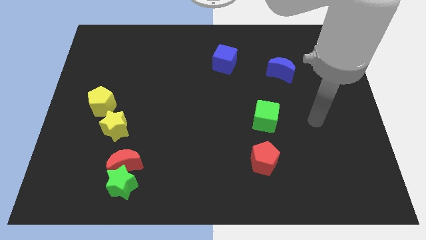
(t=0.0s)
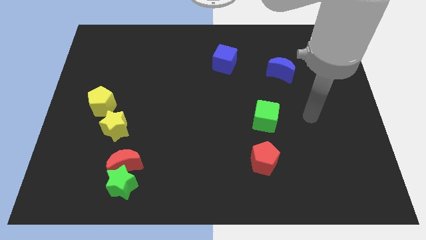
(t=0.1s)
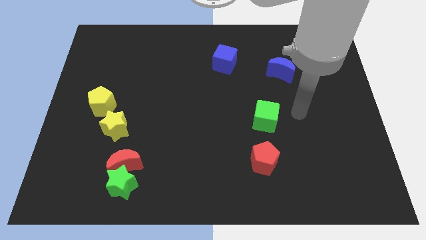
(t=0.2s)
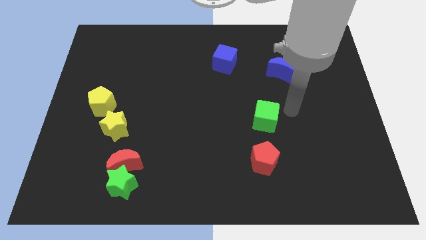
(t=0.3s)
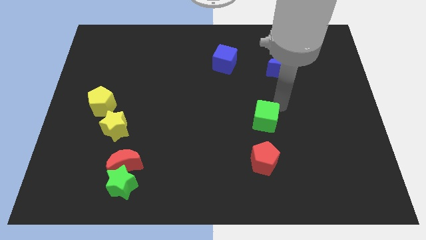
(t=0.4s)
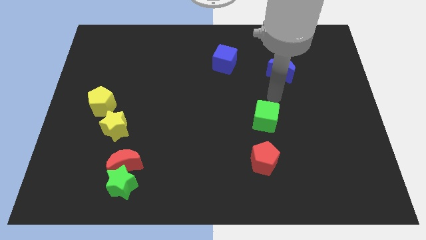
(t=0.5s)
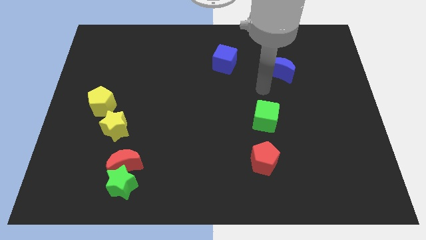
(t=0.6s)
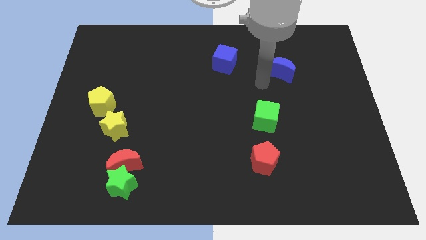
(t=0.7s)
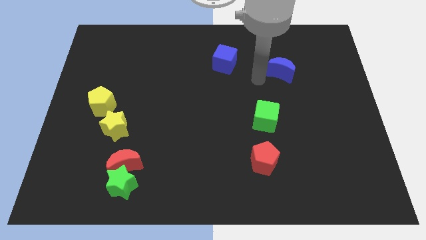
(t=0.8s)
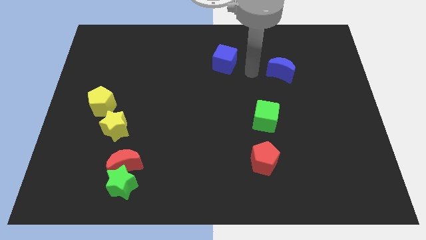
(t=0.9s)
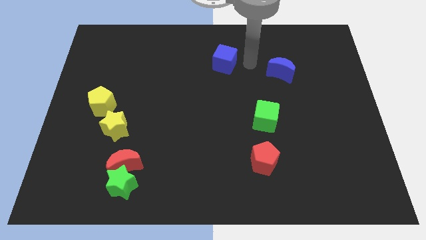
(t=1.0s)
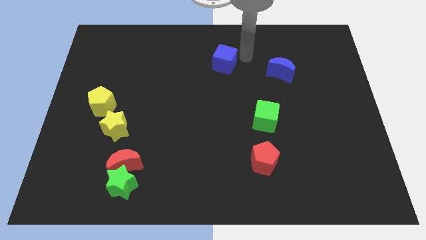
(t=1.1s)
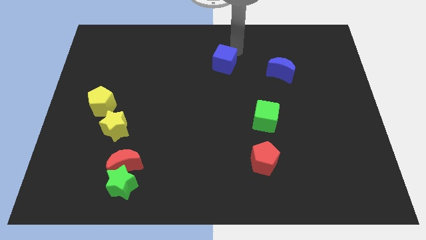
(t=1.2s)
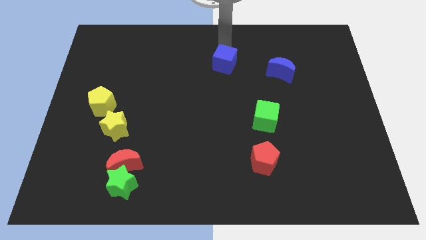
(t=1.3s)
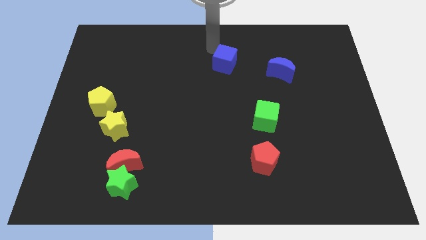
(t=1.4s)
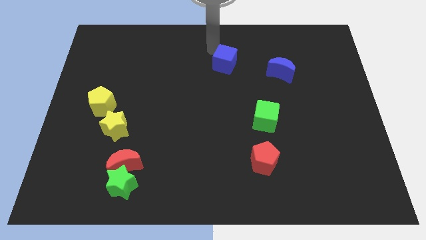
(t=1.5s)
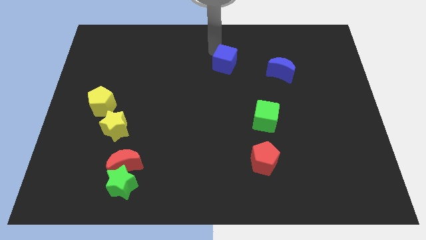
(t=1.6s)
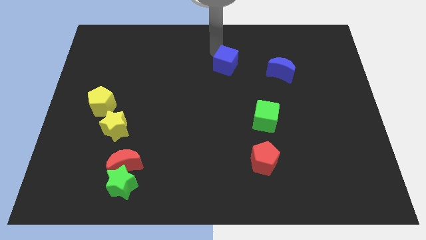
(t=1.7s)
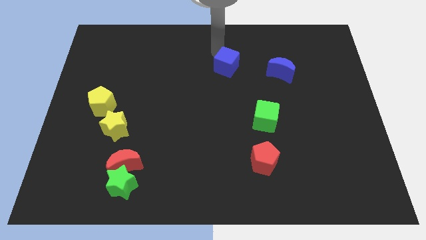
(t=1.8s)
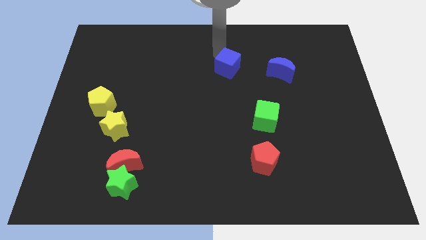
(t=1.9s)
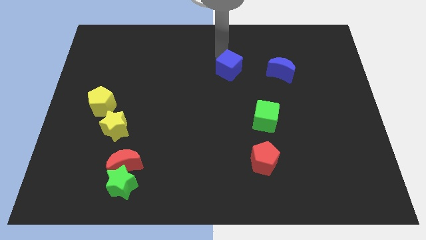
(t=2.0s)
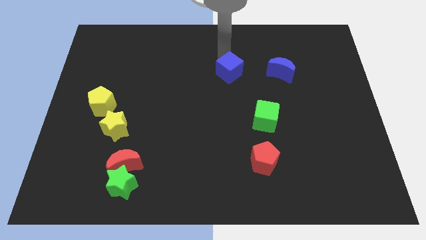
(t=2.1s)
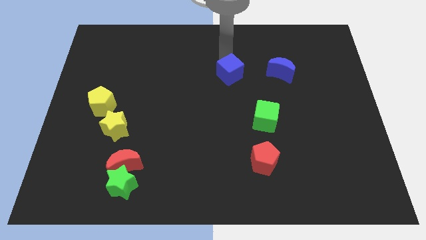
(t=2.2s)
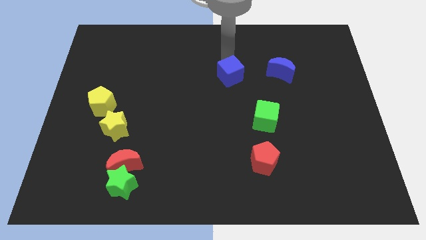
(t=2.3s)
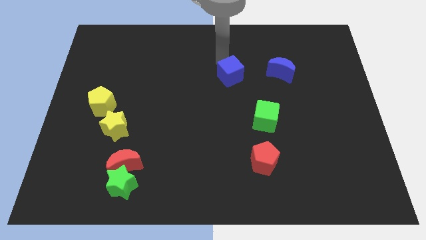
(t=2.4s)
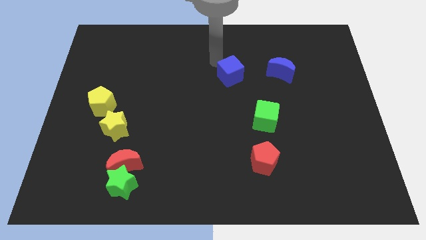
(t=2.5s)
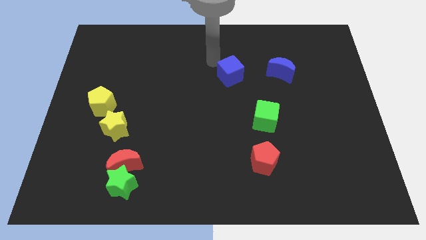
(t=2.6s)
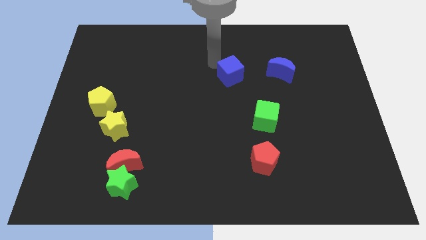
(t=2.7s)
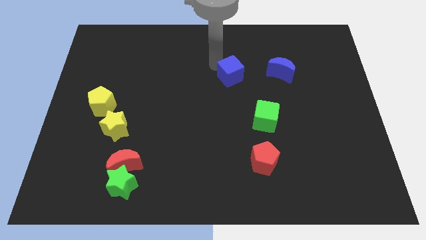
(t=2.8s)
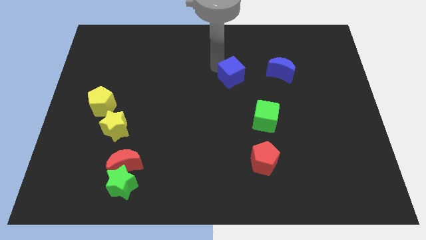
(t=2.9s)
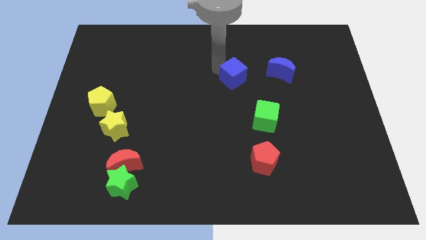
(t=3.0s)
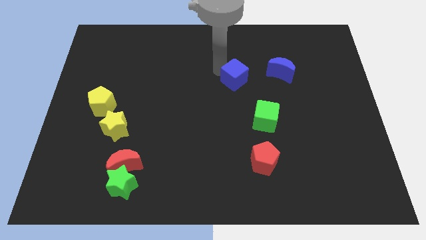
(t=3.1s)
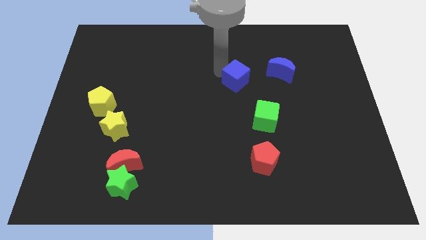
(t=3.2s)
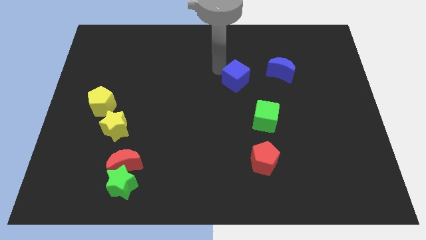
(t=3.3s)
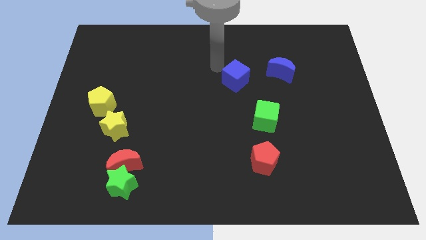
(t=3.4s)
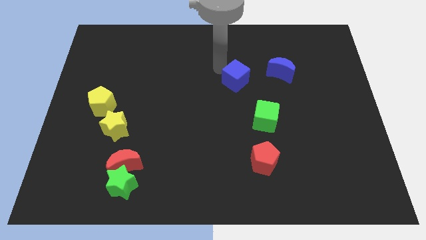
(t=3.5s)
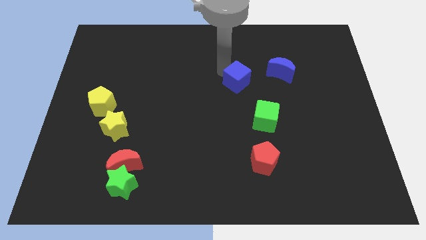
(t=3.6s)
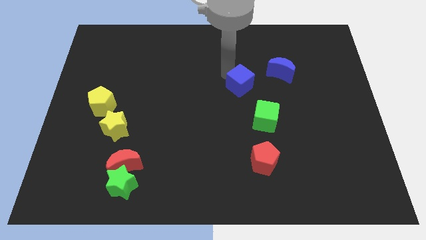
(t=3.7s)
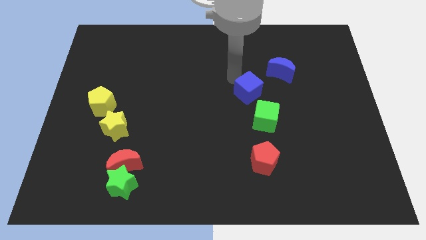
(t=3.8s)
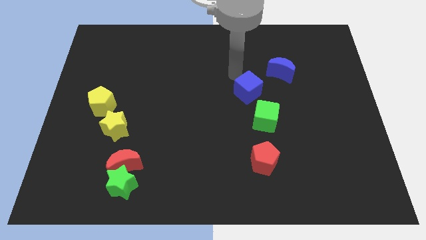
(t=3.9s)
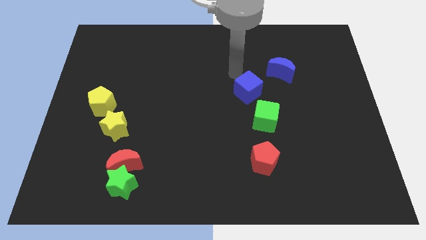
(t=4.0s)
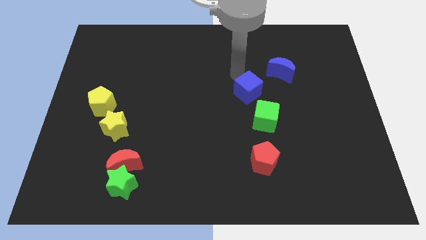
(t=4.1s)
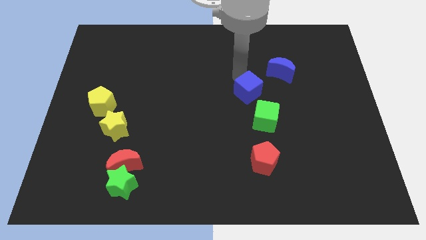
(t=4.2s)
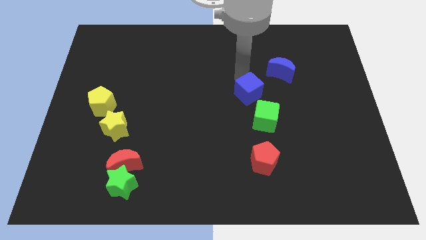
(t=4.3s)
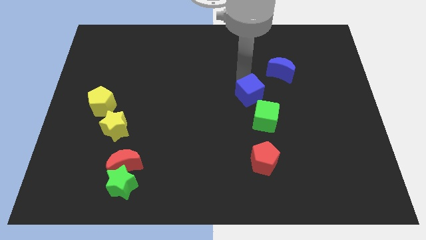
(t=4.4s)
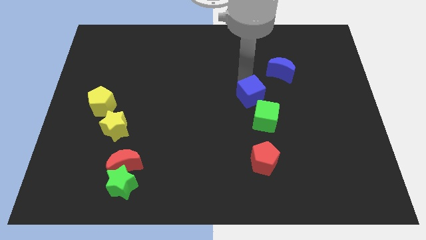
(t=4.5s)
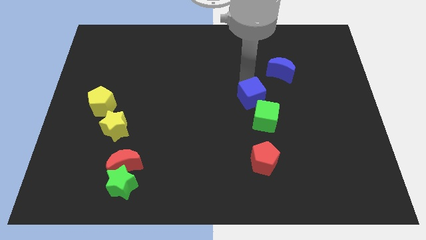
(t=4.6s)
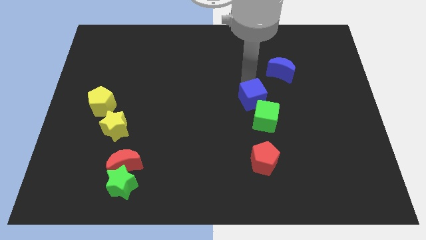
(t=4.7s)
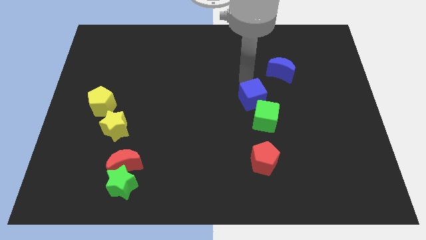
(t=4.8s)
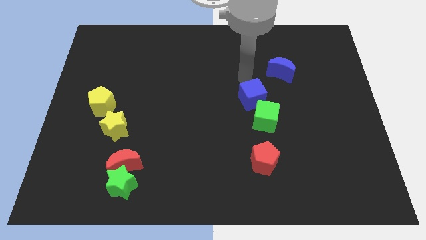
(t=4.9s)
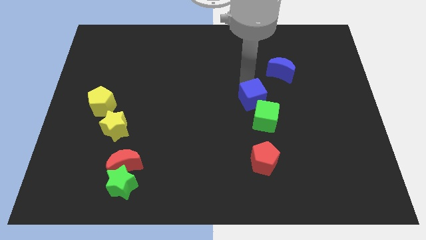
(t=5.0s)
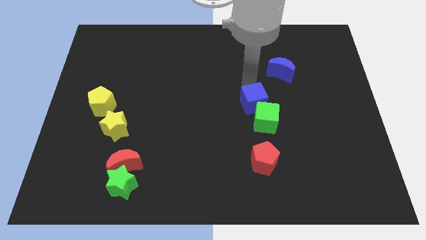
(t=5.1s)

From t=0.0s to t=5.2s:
put the blue cube to the top of the red pentagon

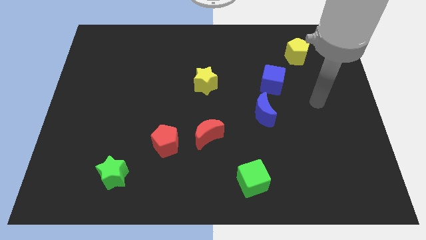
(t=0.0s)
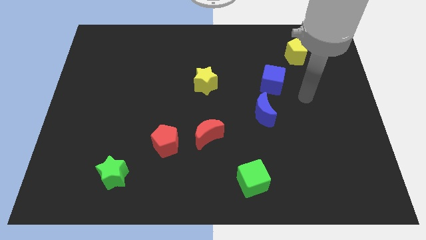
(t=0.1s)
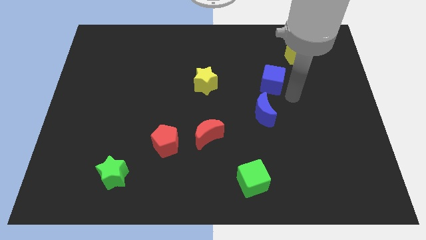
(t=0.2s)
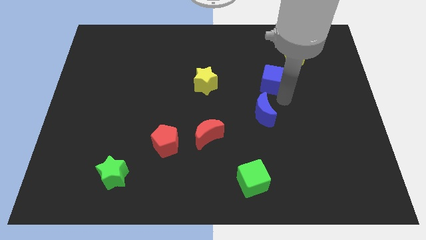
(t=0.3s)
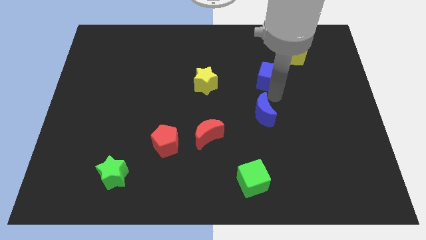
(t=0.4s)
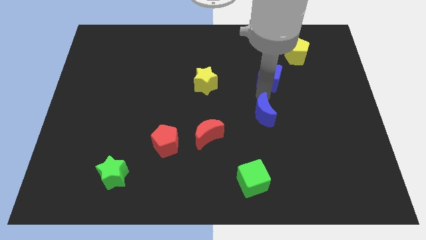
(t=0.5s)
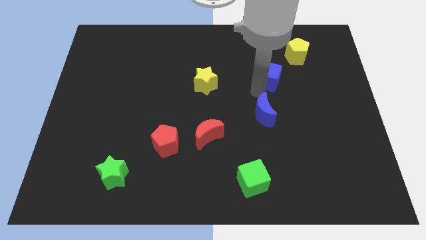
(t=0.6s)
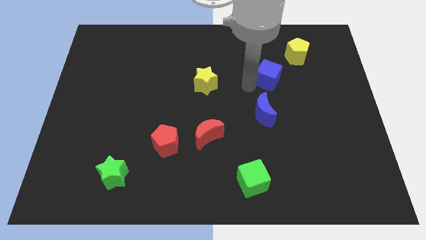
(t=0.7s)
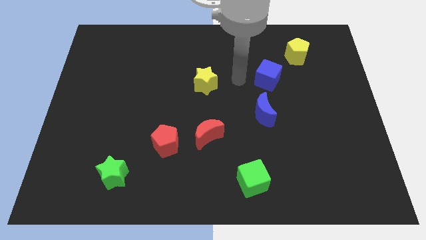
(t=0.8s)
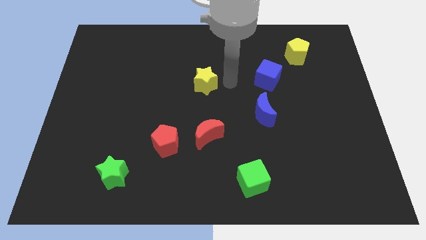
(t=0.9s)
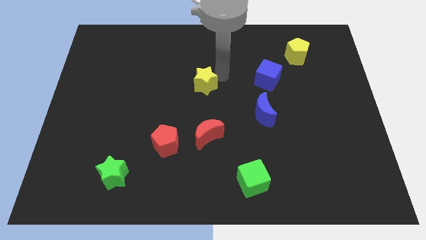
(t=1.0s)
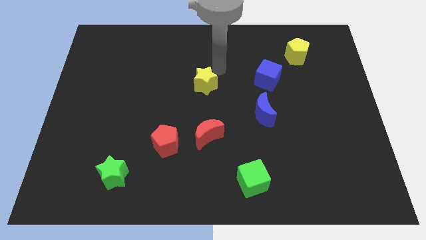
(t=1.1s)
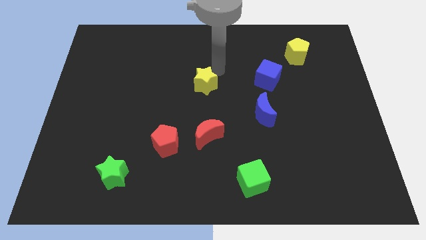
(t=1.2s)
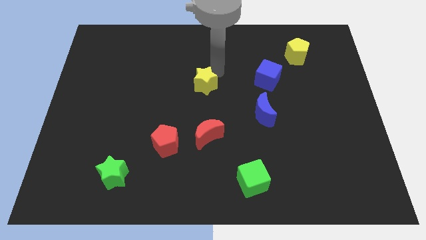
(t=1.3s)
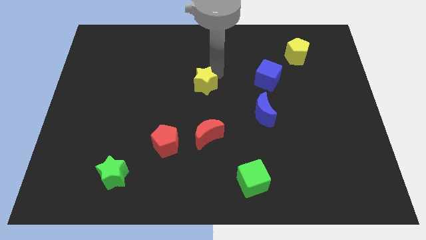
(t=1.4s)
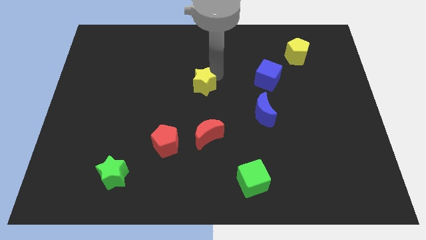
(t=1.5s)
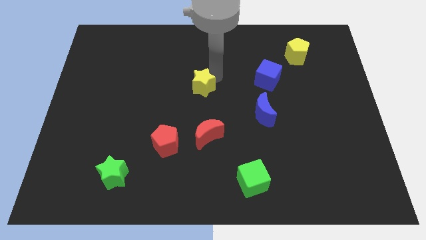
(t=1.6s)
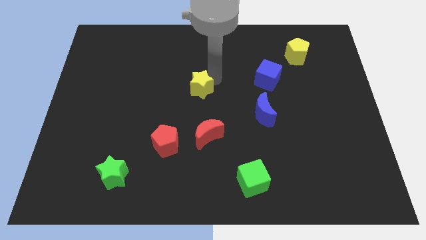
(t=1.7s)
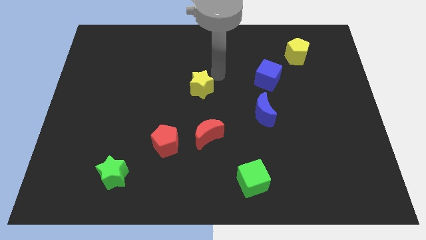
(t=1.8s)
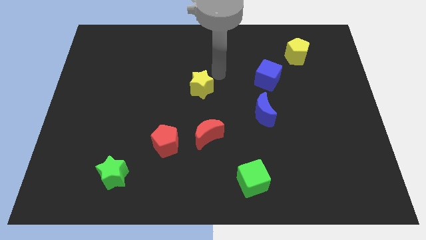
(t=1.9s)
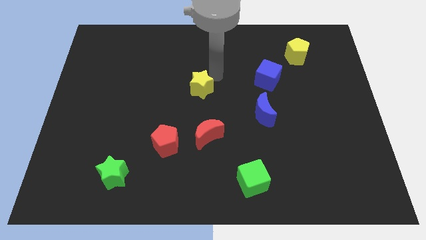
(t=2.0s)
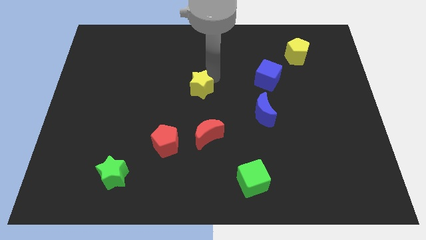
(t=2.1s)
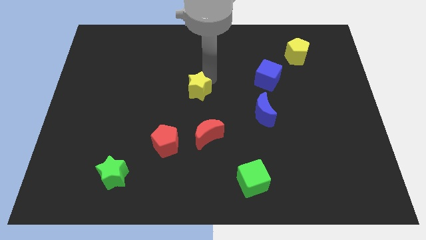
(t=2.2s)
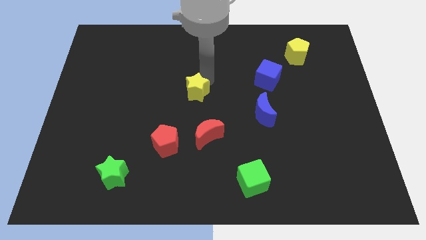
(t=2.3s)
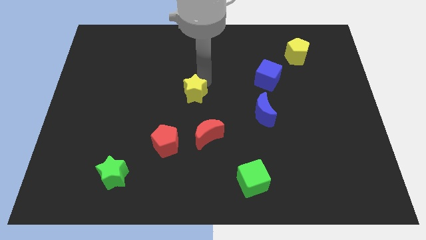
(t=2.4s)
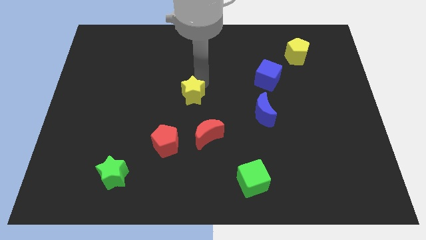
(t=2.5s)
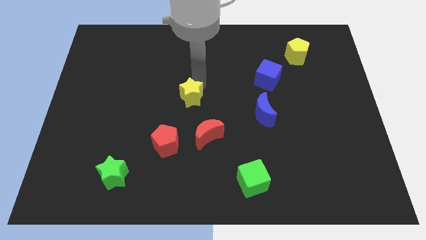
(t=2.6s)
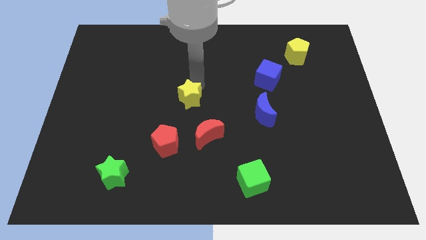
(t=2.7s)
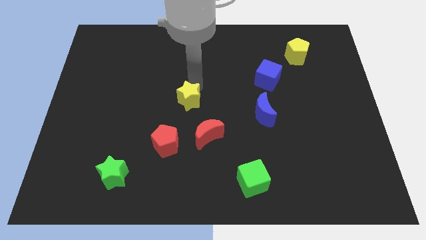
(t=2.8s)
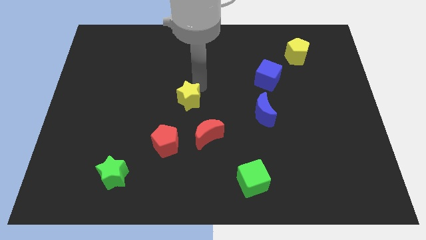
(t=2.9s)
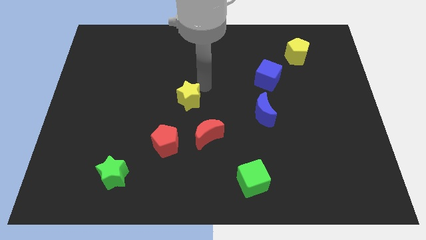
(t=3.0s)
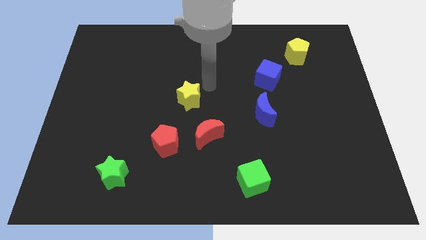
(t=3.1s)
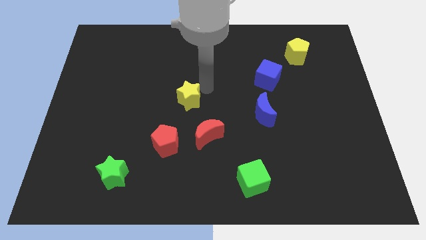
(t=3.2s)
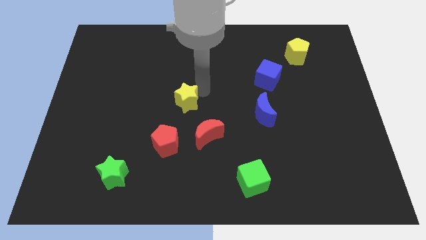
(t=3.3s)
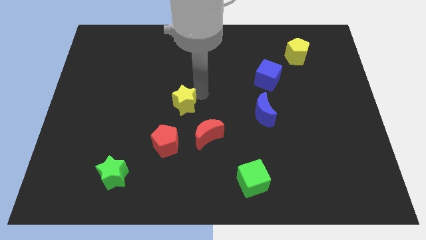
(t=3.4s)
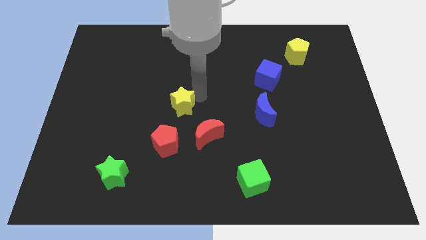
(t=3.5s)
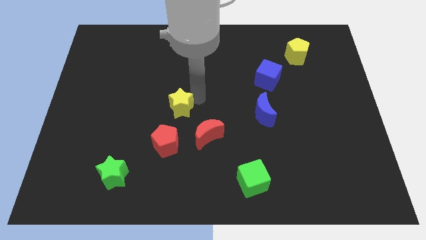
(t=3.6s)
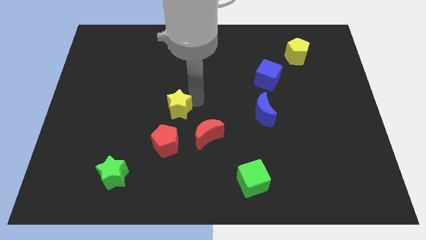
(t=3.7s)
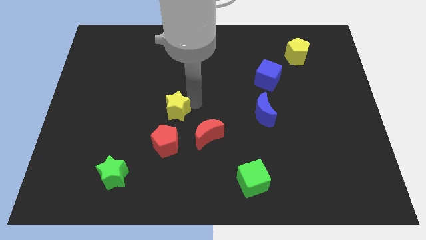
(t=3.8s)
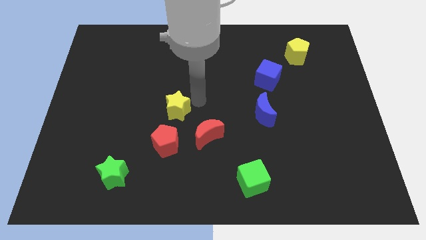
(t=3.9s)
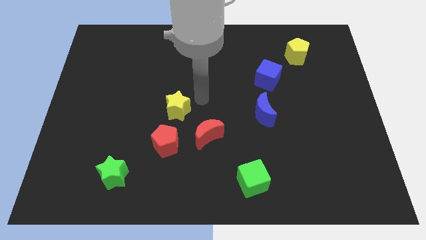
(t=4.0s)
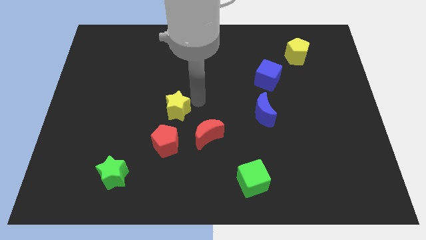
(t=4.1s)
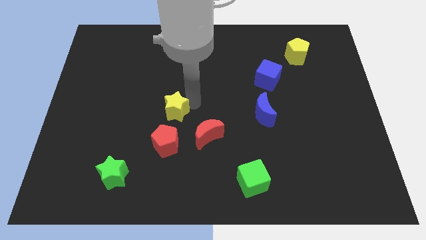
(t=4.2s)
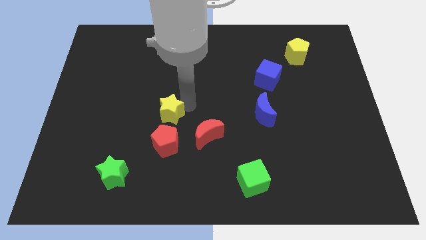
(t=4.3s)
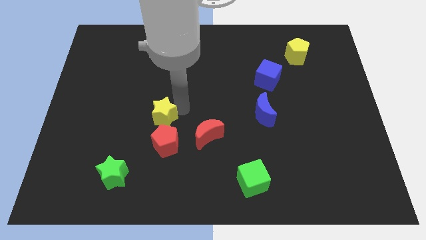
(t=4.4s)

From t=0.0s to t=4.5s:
move the yellow star to the top left of the red pentagon
